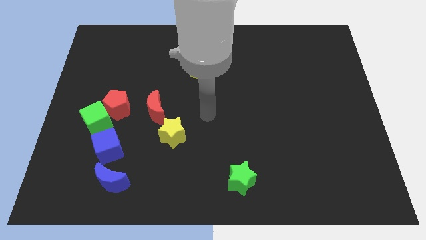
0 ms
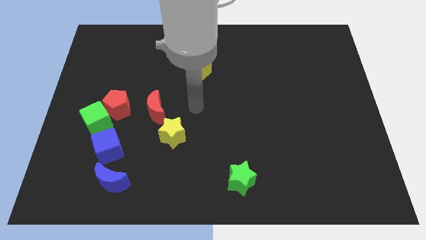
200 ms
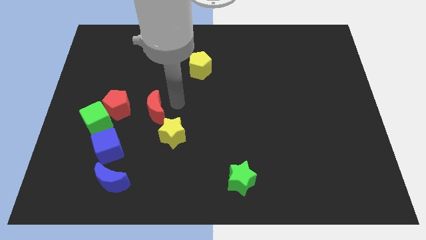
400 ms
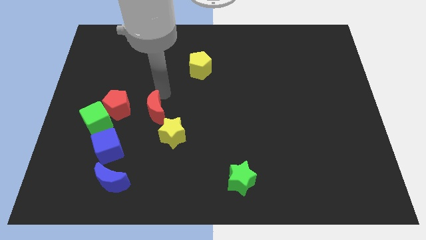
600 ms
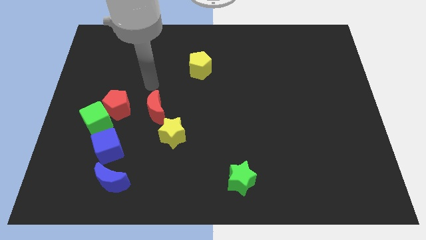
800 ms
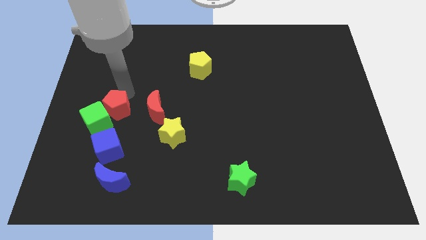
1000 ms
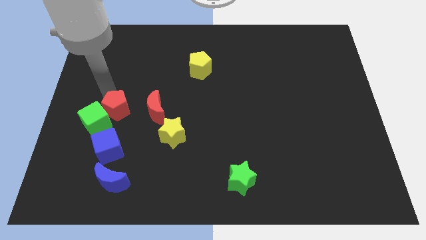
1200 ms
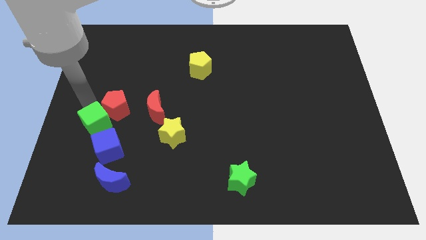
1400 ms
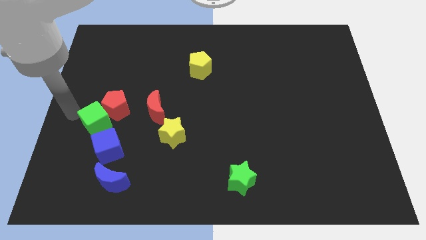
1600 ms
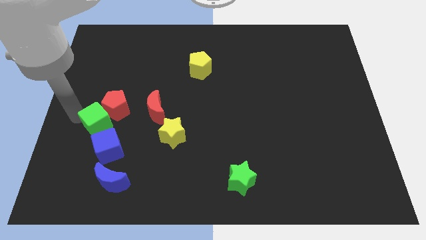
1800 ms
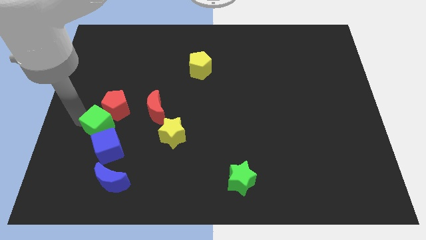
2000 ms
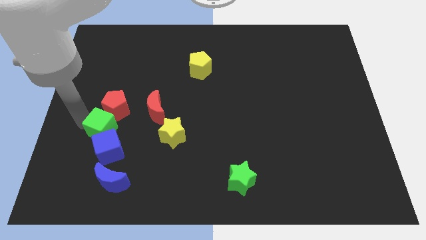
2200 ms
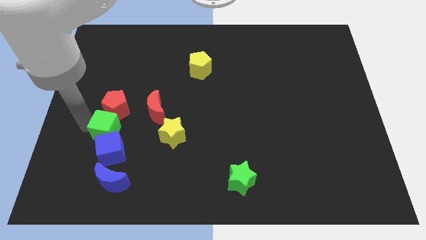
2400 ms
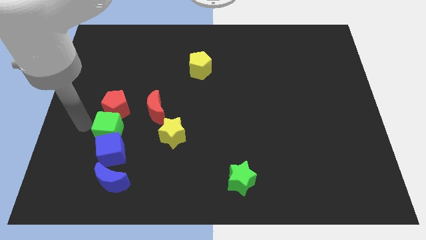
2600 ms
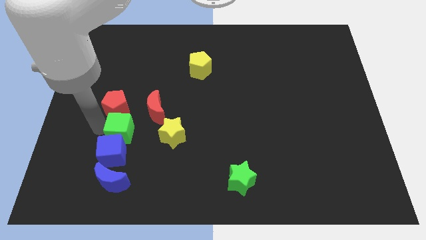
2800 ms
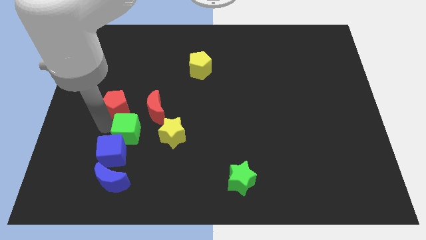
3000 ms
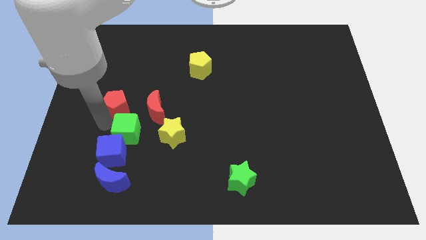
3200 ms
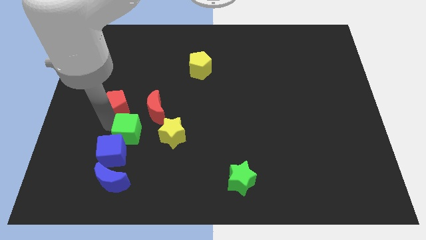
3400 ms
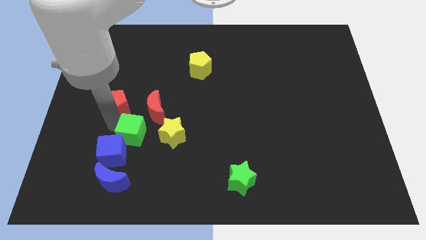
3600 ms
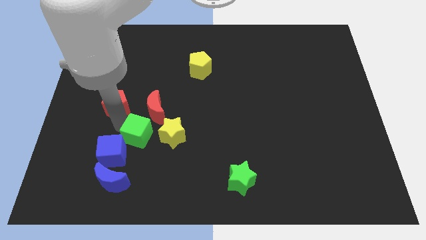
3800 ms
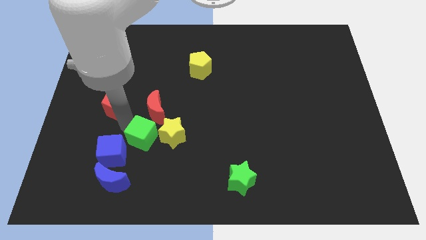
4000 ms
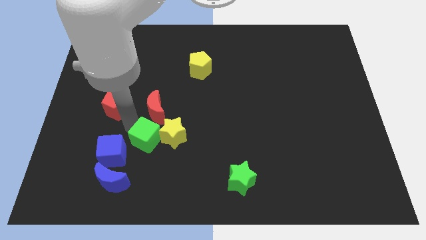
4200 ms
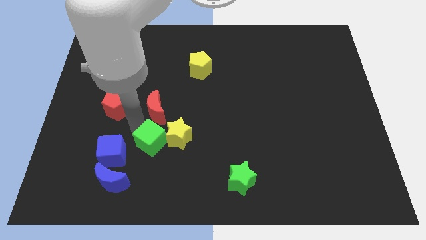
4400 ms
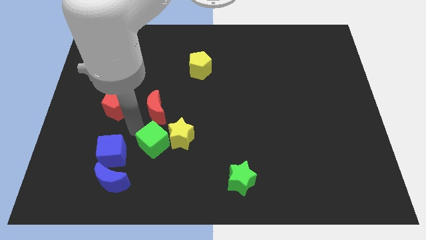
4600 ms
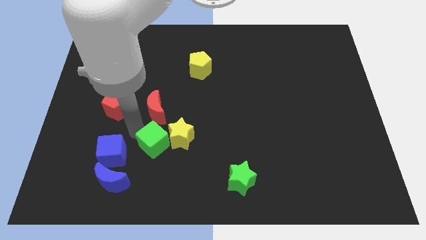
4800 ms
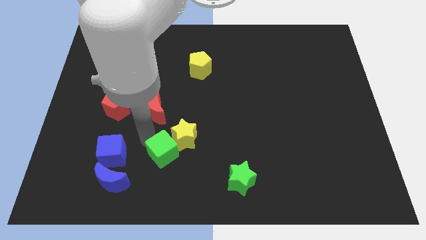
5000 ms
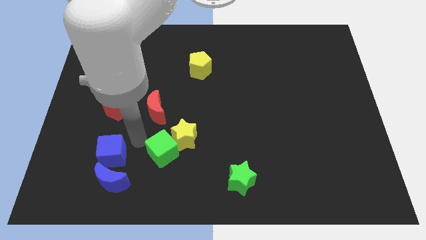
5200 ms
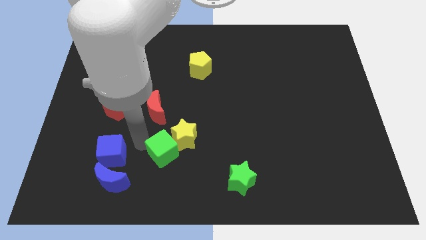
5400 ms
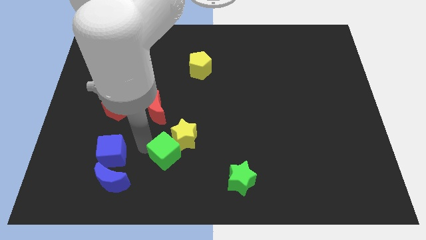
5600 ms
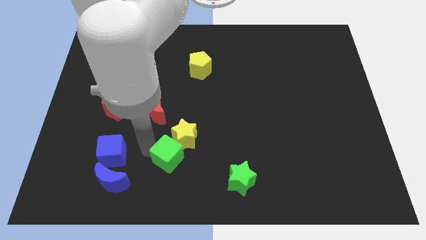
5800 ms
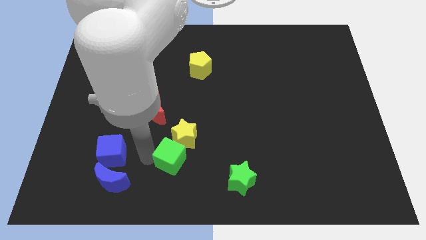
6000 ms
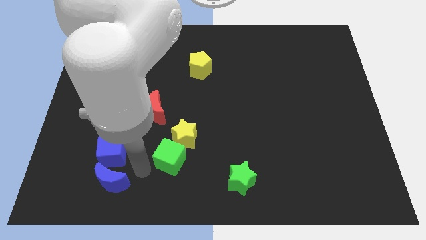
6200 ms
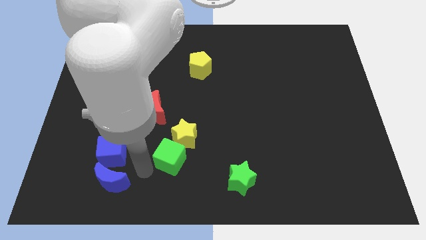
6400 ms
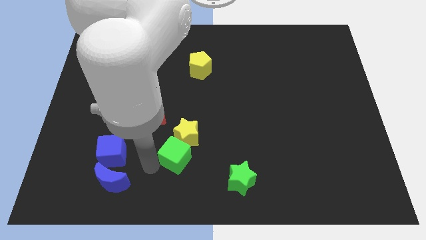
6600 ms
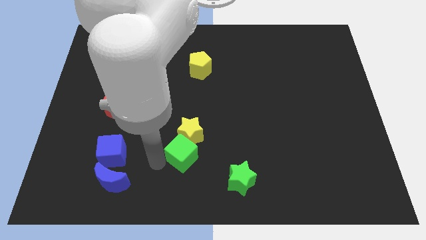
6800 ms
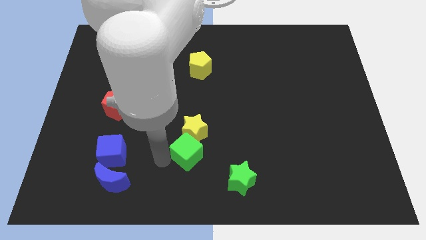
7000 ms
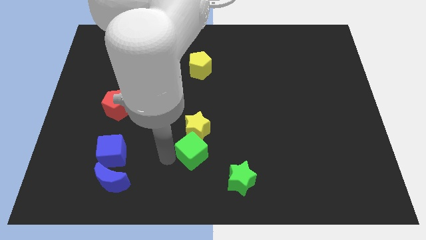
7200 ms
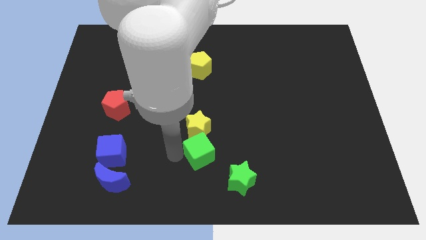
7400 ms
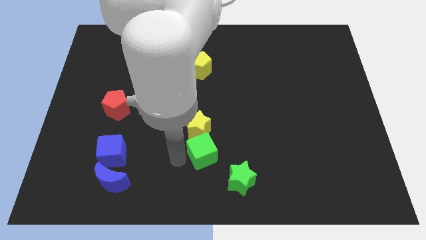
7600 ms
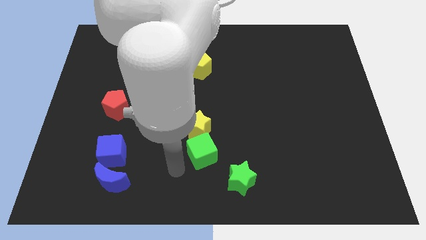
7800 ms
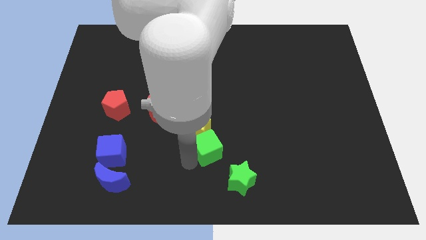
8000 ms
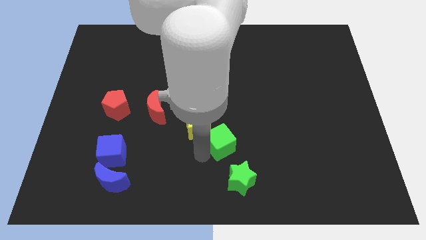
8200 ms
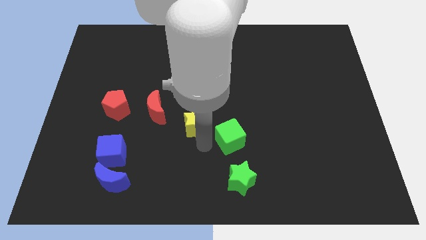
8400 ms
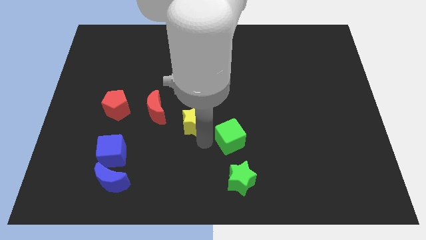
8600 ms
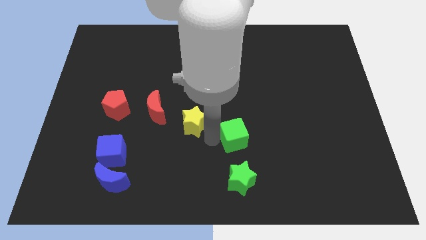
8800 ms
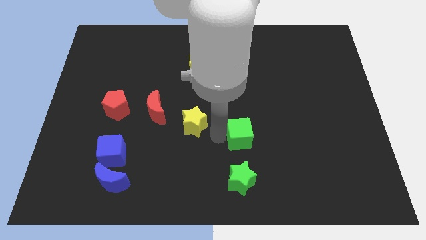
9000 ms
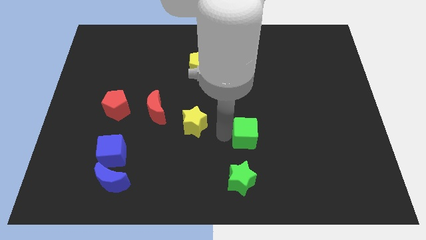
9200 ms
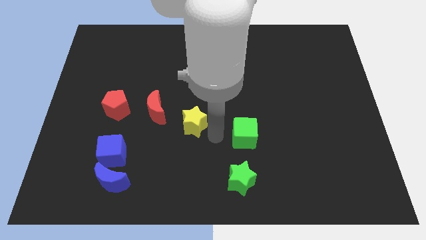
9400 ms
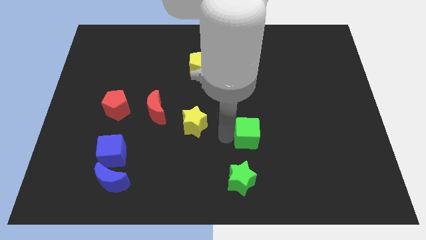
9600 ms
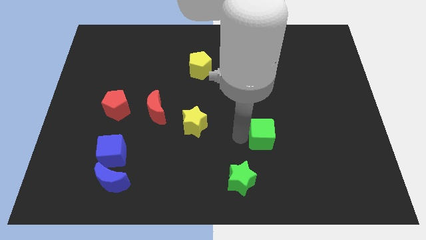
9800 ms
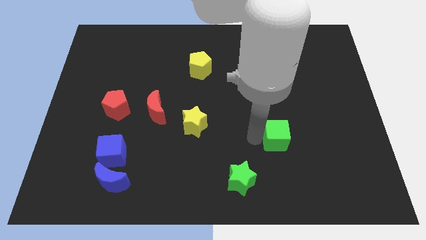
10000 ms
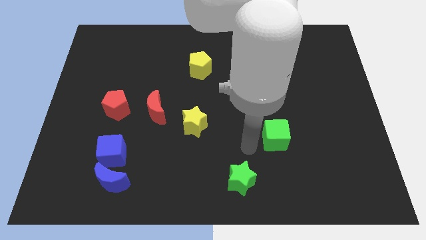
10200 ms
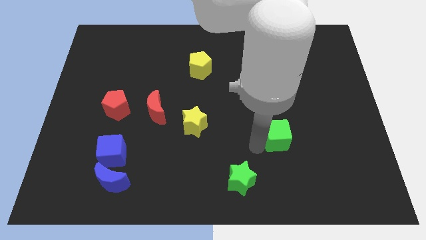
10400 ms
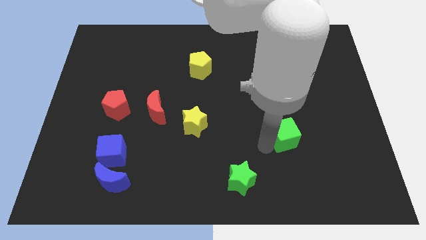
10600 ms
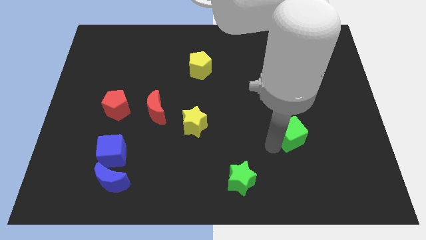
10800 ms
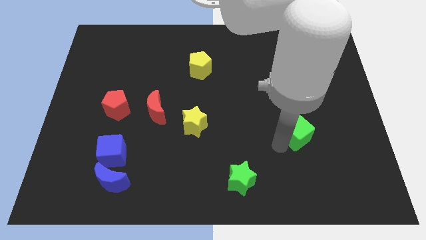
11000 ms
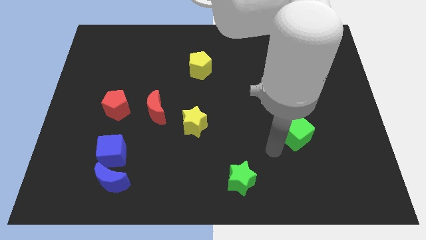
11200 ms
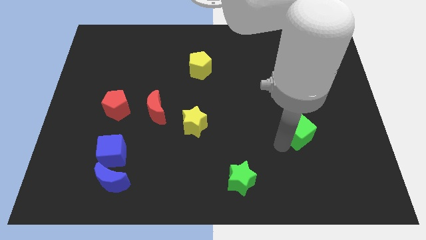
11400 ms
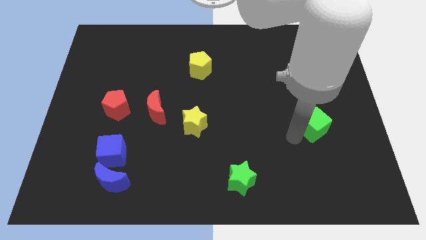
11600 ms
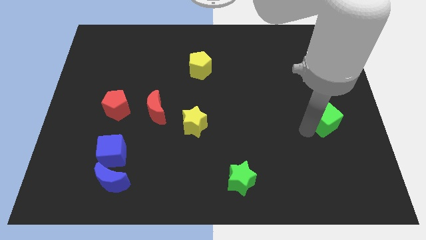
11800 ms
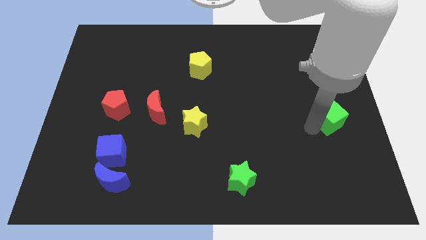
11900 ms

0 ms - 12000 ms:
push the green cube to the right side
